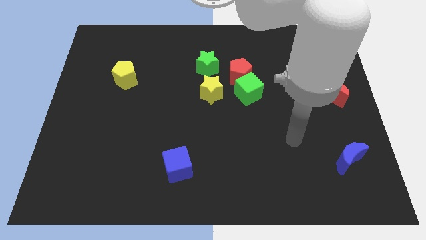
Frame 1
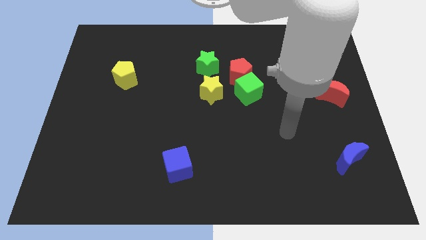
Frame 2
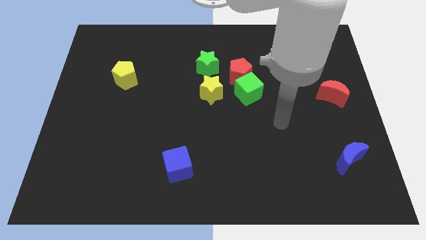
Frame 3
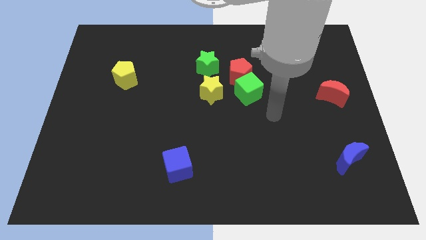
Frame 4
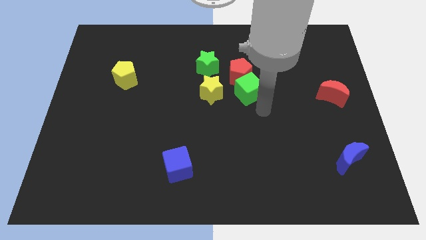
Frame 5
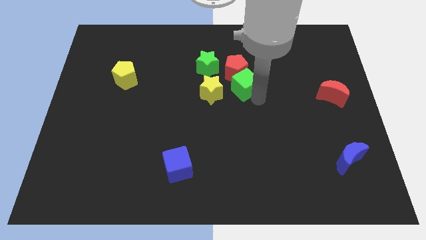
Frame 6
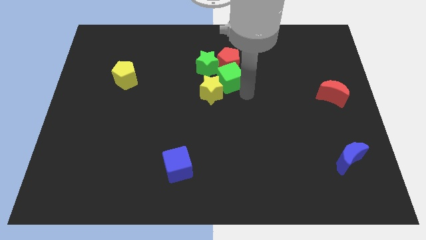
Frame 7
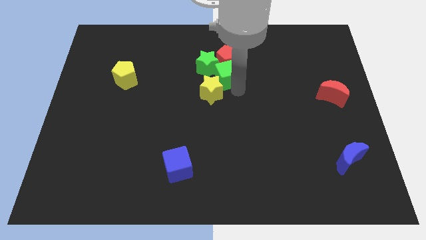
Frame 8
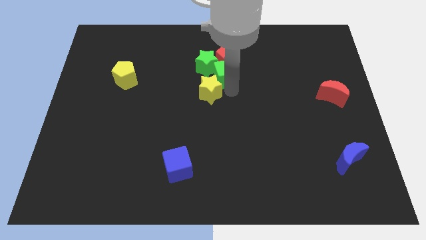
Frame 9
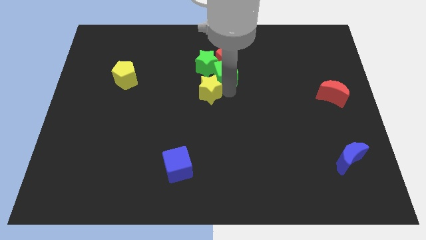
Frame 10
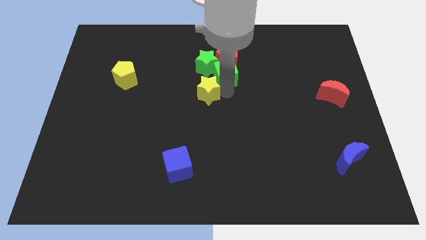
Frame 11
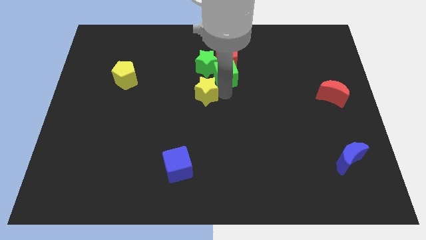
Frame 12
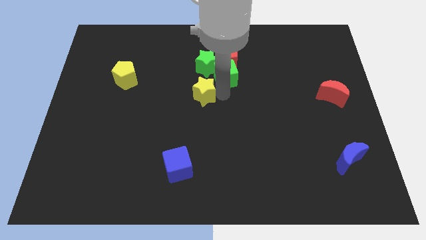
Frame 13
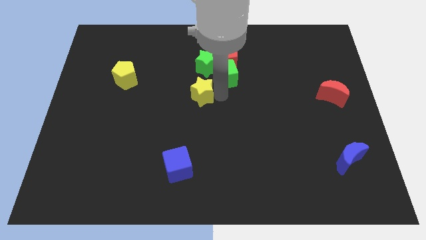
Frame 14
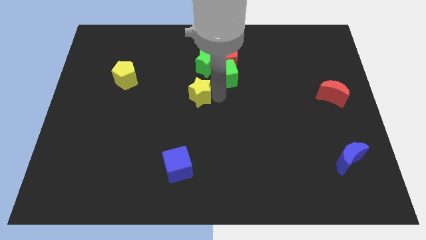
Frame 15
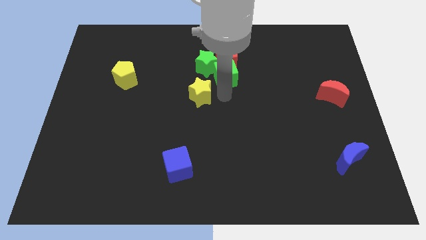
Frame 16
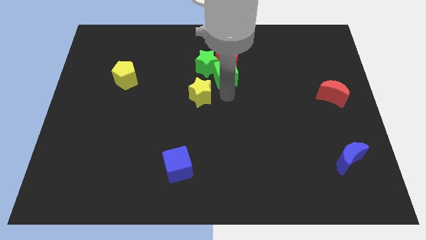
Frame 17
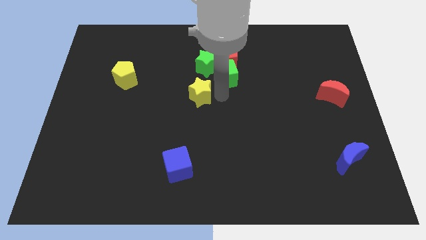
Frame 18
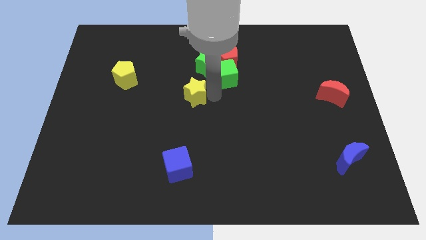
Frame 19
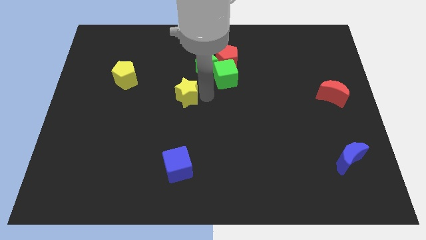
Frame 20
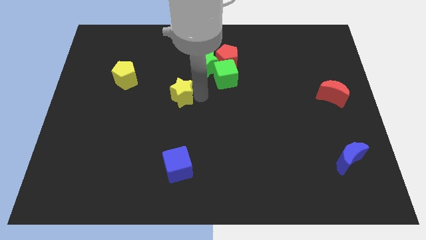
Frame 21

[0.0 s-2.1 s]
slightly slide the yellow star to the left

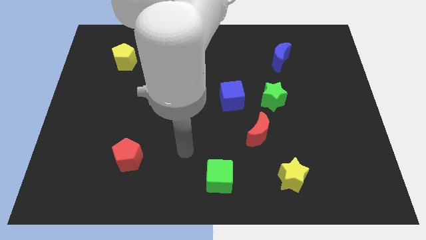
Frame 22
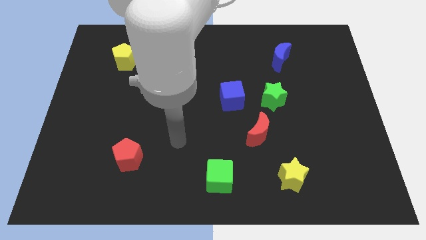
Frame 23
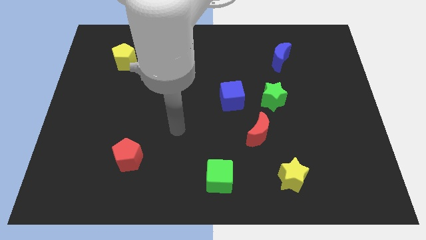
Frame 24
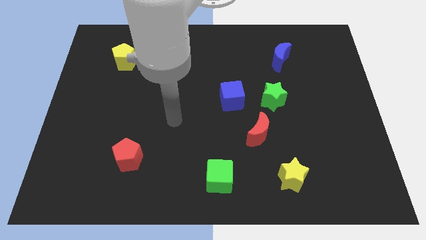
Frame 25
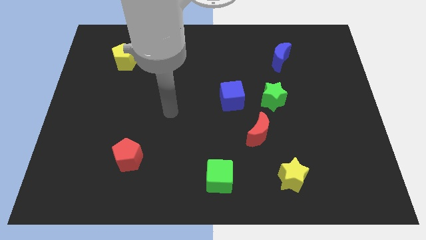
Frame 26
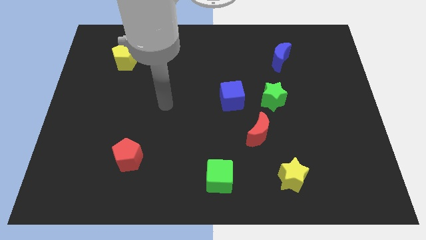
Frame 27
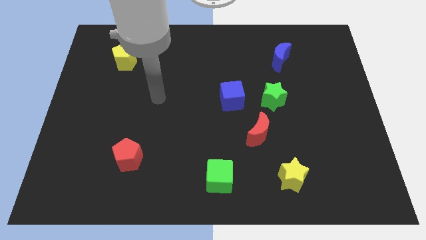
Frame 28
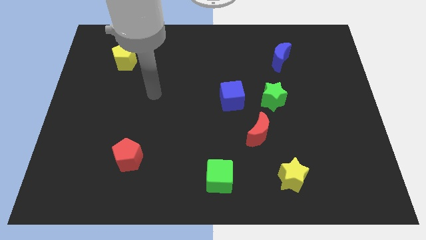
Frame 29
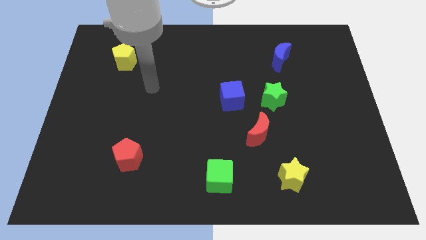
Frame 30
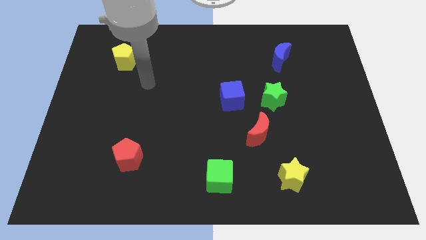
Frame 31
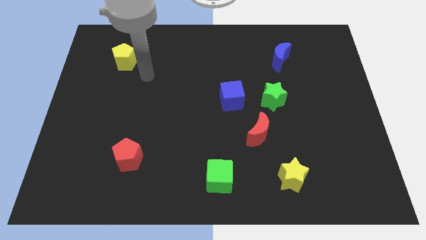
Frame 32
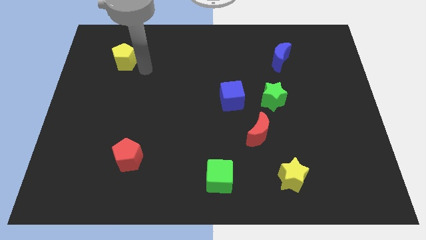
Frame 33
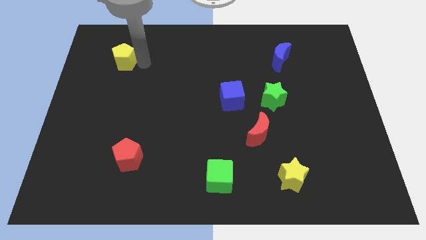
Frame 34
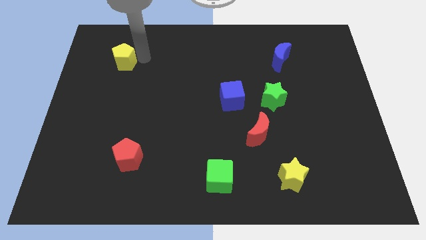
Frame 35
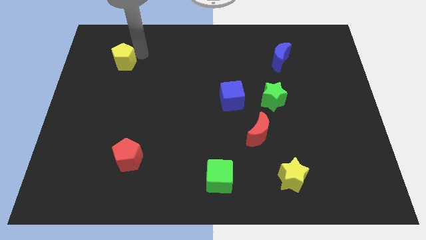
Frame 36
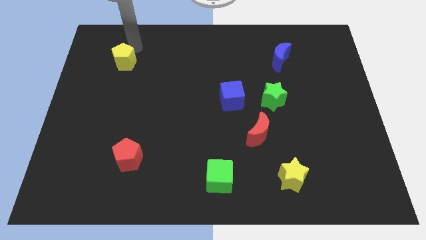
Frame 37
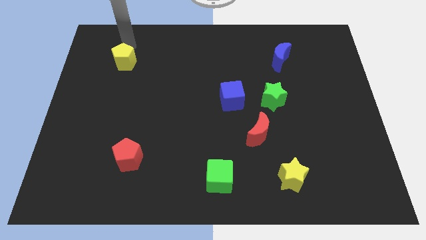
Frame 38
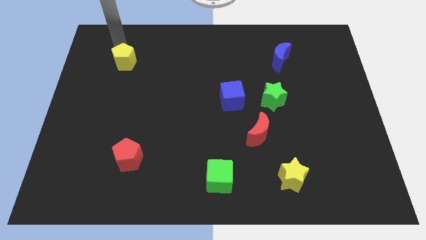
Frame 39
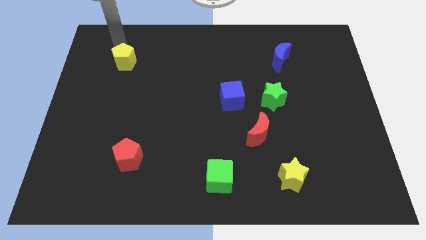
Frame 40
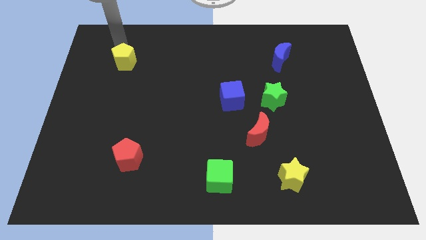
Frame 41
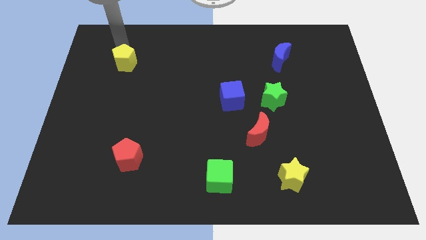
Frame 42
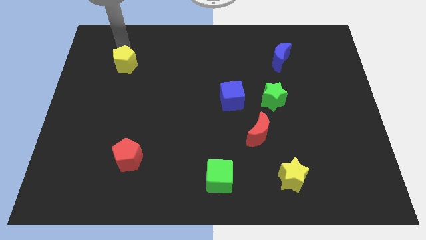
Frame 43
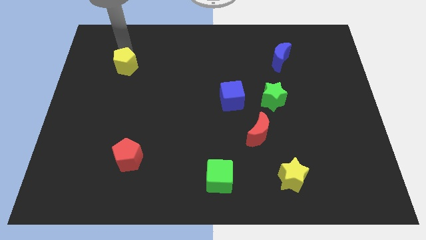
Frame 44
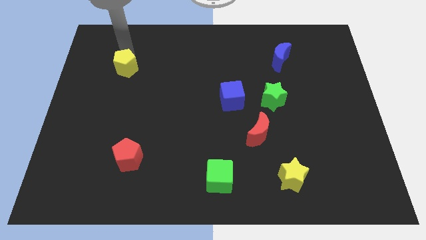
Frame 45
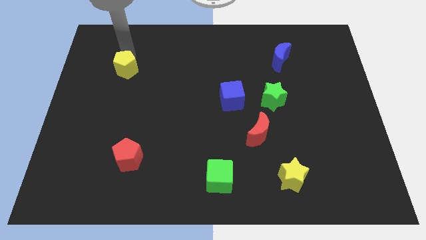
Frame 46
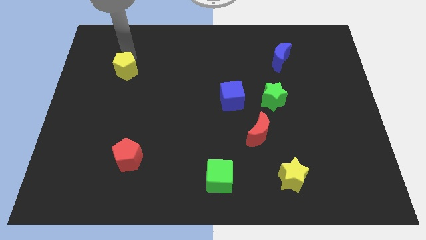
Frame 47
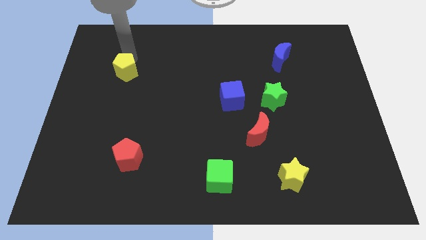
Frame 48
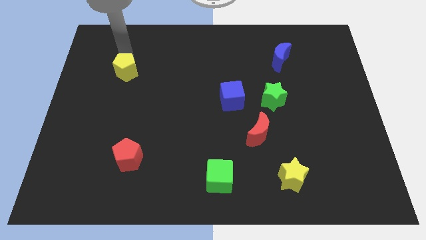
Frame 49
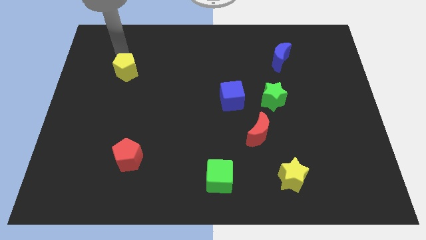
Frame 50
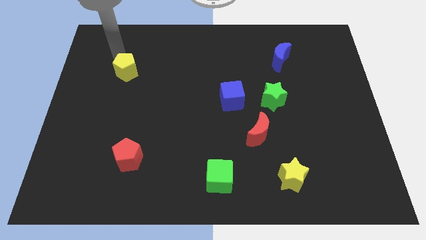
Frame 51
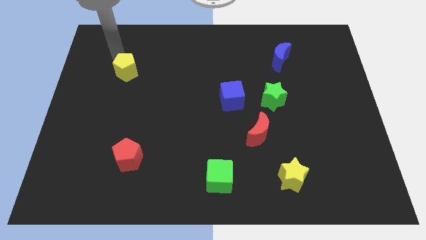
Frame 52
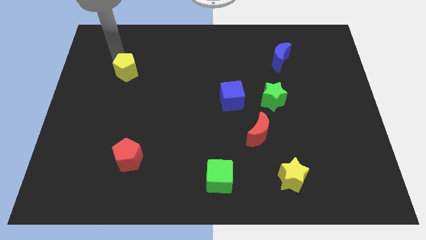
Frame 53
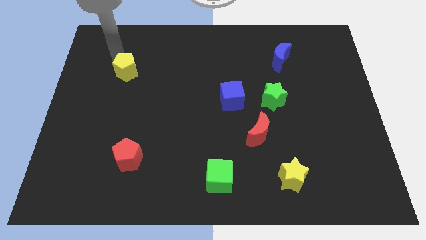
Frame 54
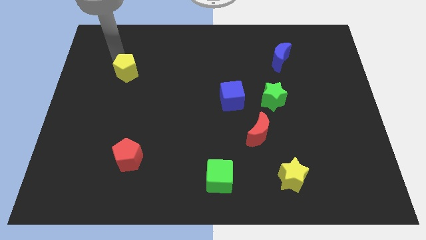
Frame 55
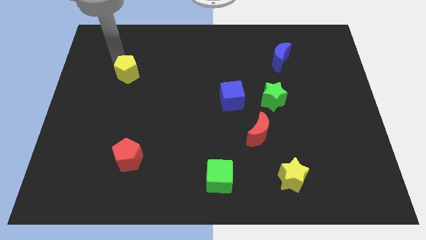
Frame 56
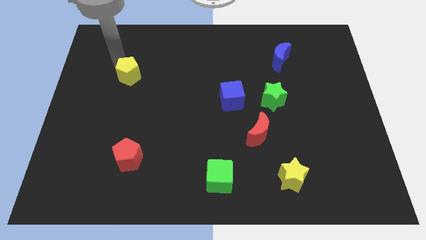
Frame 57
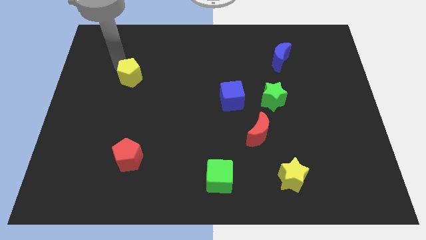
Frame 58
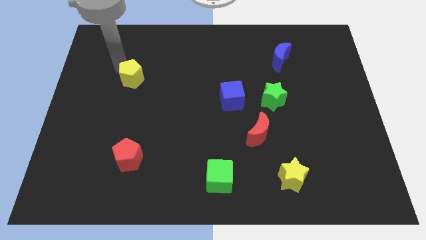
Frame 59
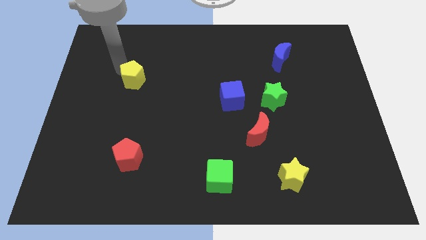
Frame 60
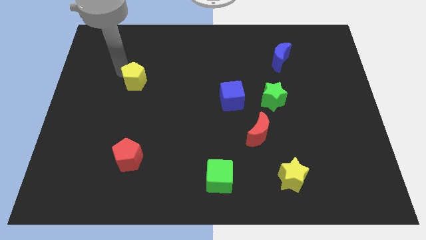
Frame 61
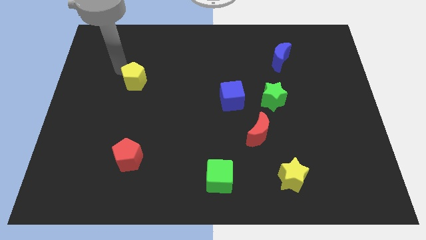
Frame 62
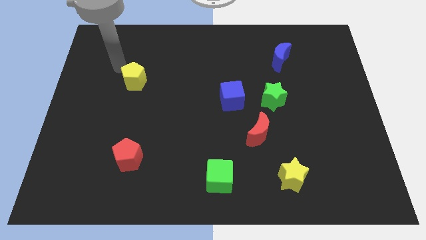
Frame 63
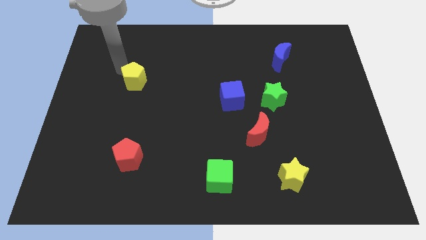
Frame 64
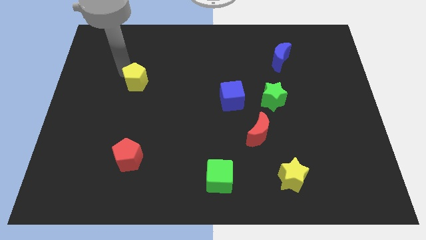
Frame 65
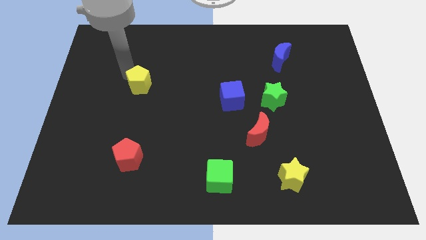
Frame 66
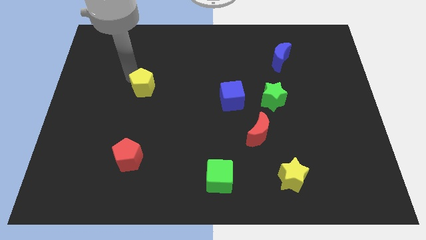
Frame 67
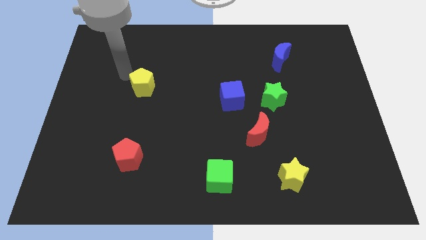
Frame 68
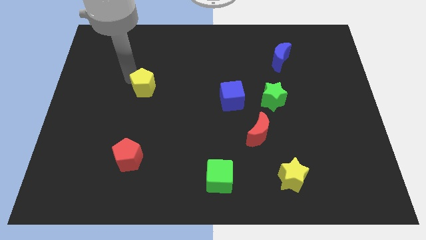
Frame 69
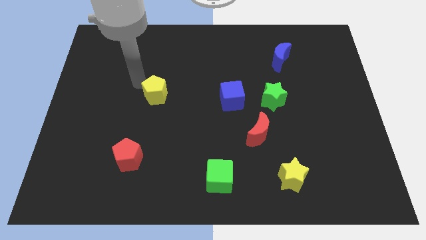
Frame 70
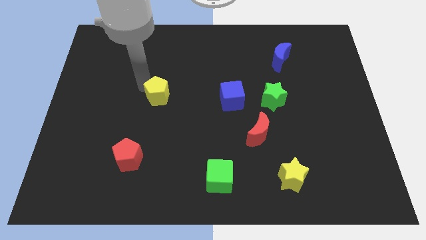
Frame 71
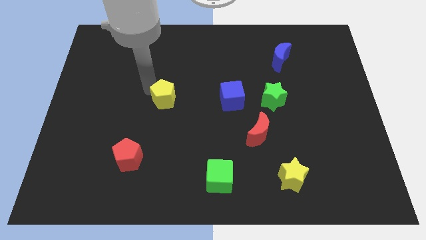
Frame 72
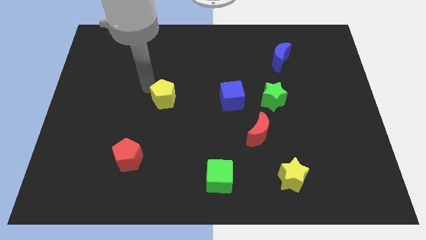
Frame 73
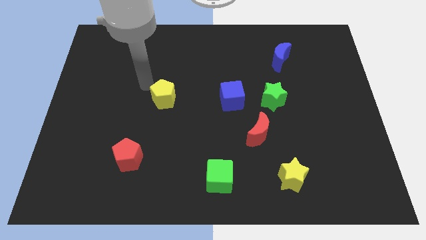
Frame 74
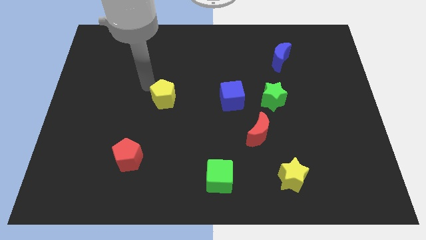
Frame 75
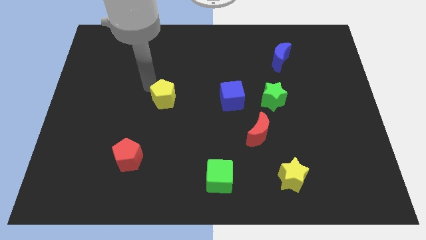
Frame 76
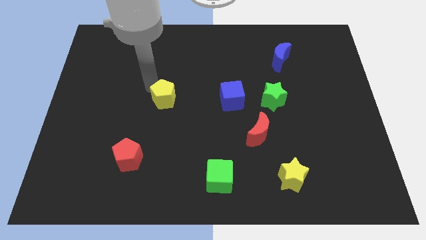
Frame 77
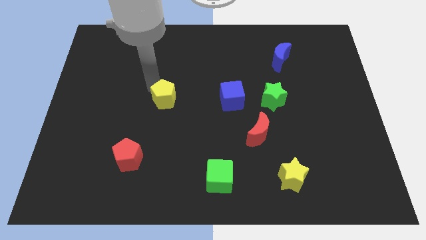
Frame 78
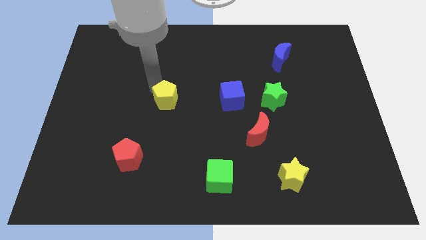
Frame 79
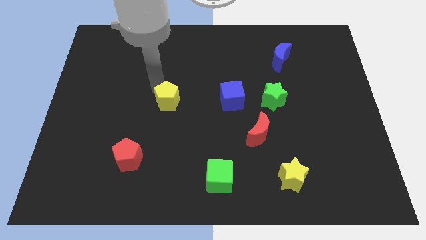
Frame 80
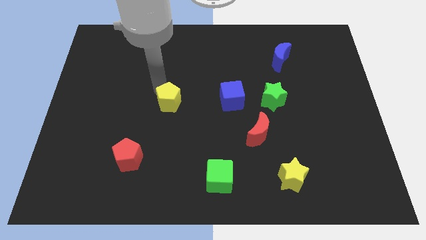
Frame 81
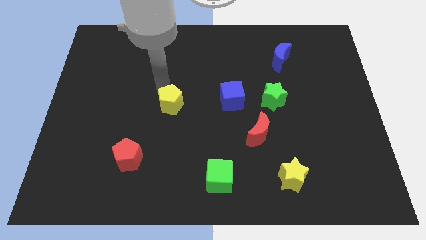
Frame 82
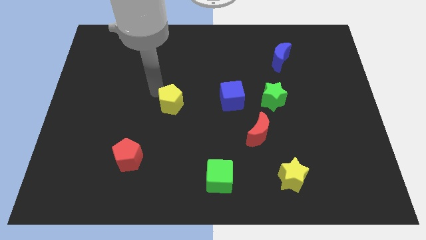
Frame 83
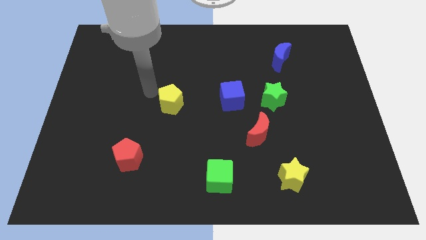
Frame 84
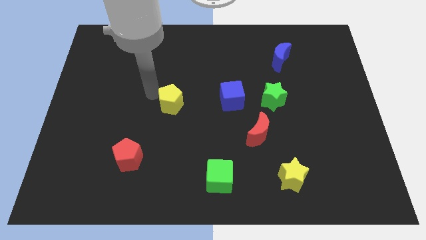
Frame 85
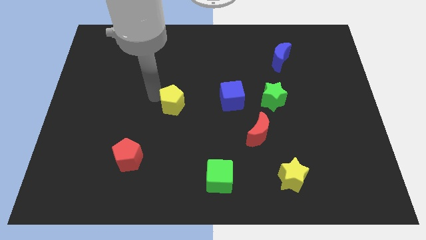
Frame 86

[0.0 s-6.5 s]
slide the yellow pentagon downwards and then right
